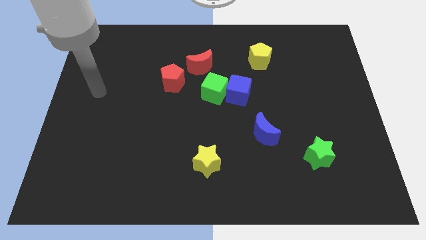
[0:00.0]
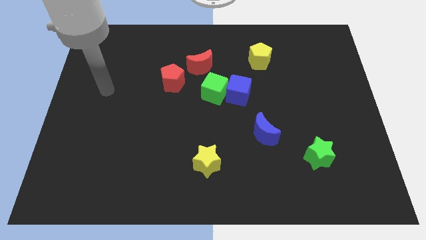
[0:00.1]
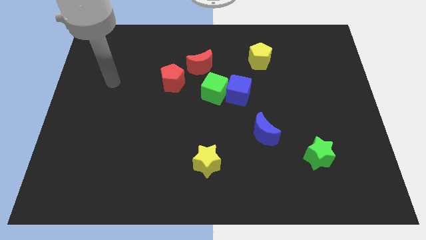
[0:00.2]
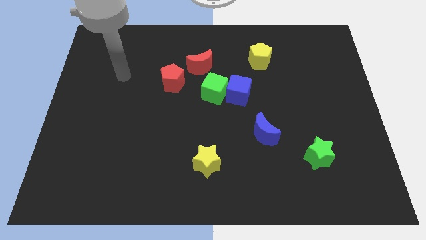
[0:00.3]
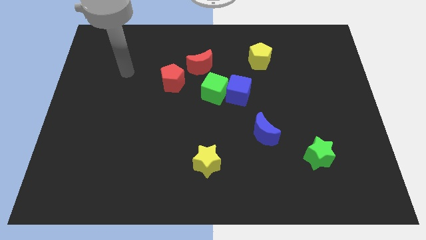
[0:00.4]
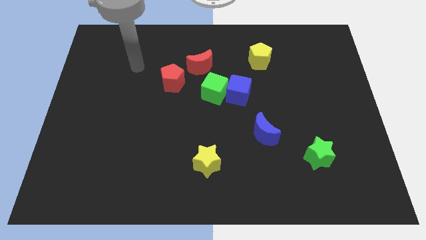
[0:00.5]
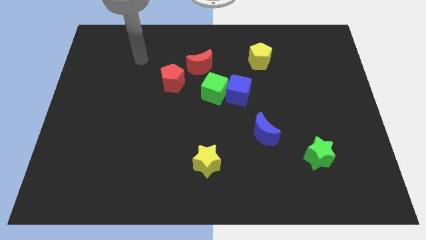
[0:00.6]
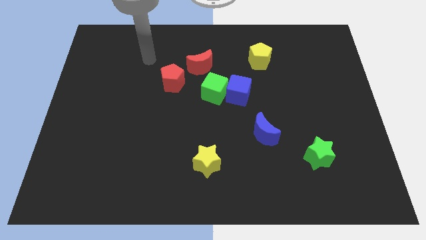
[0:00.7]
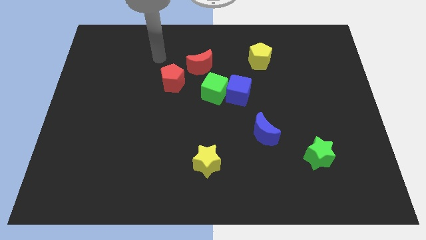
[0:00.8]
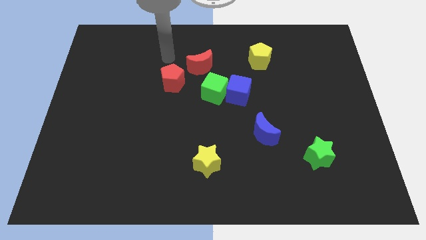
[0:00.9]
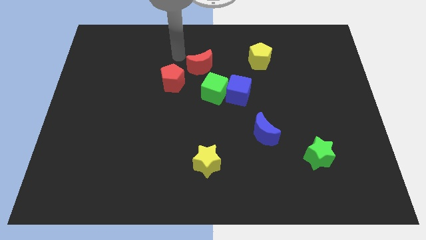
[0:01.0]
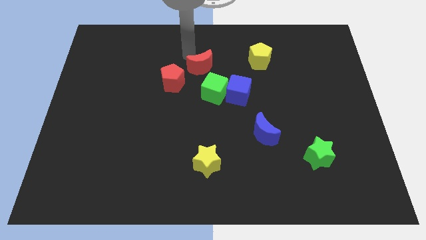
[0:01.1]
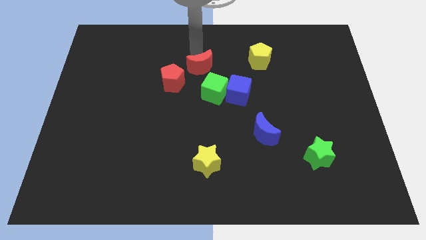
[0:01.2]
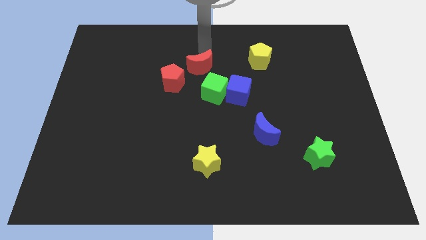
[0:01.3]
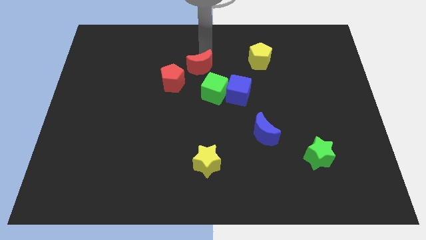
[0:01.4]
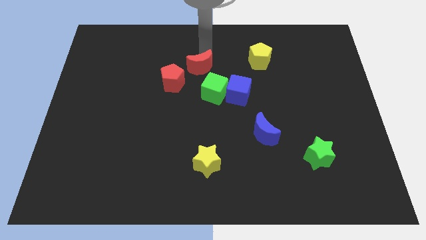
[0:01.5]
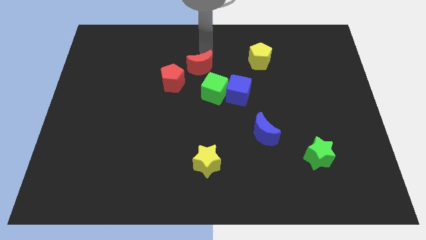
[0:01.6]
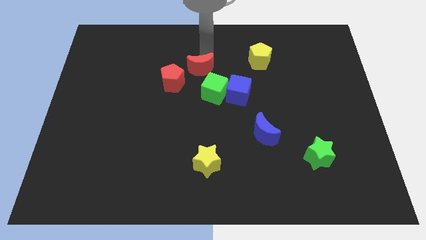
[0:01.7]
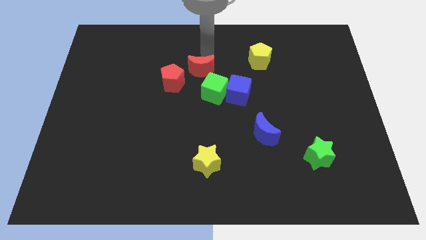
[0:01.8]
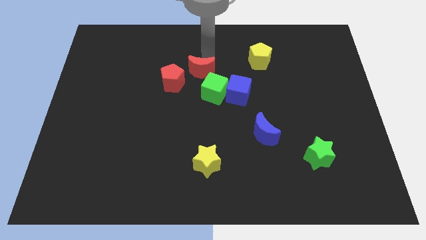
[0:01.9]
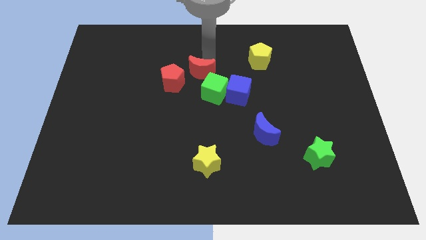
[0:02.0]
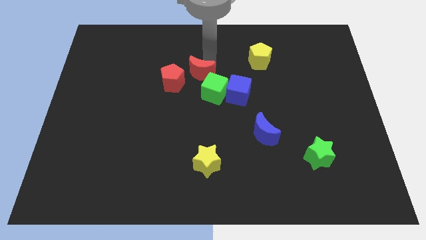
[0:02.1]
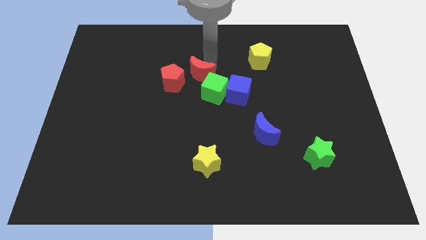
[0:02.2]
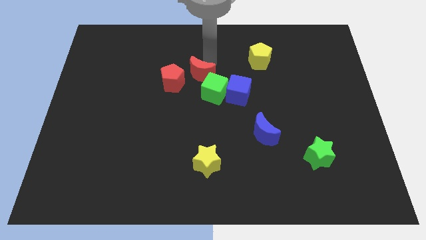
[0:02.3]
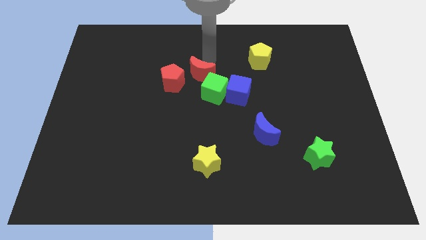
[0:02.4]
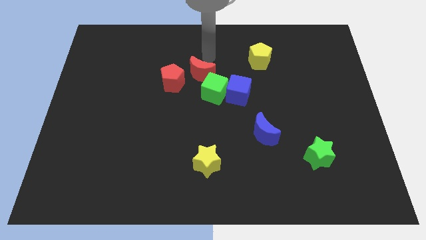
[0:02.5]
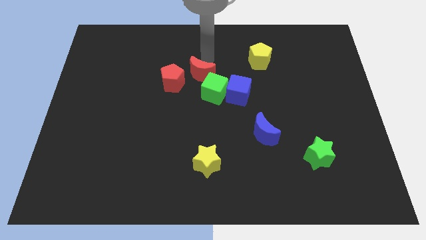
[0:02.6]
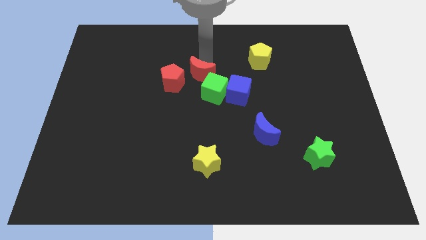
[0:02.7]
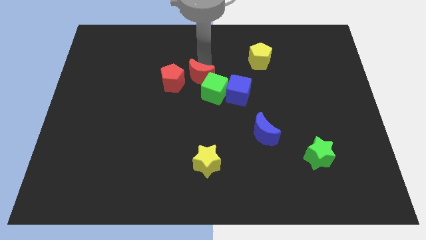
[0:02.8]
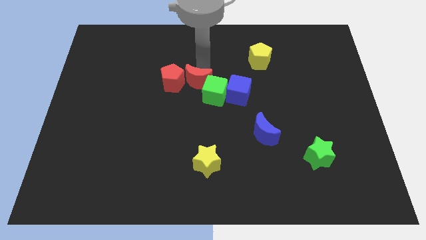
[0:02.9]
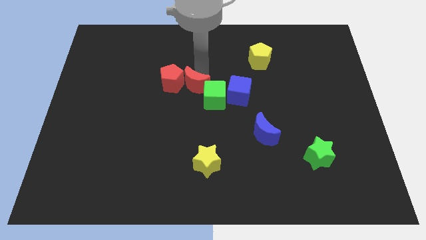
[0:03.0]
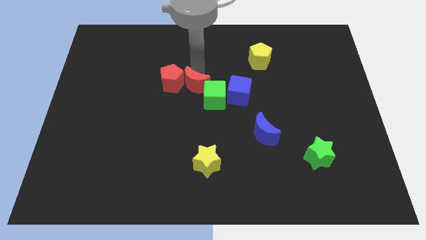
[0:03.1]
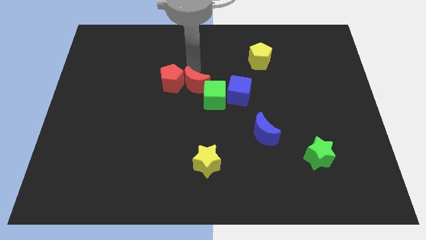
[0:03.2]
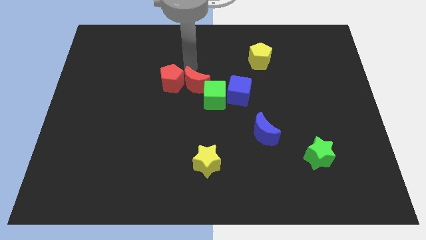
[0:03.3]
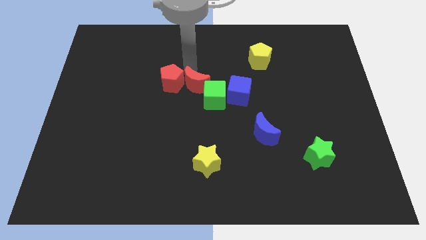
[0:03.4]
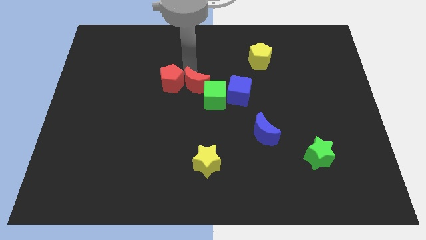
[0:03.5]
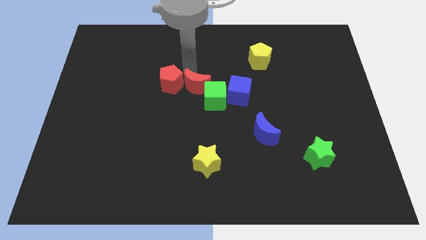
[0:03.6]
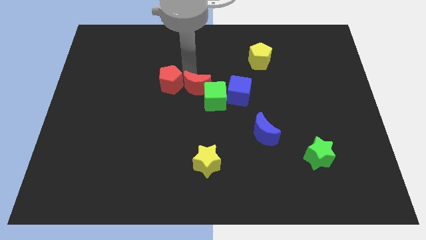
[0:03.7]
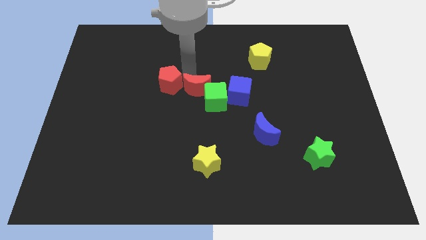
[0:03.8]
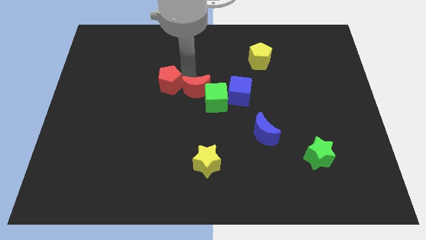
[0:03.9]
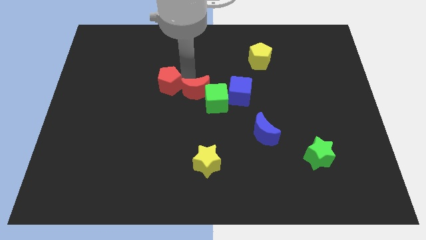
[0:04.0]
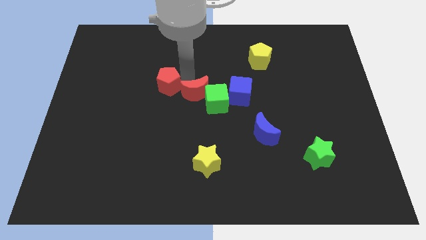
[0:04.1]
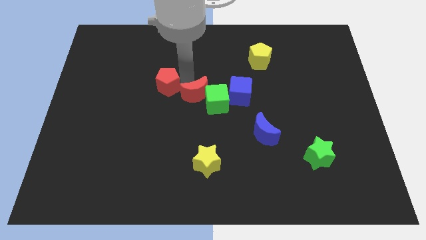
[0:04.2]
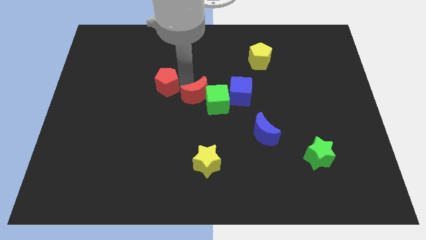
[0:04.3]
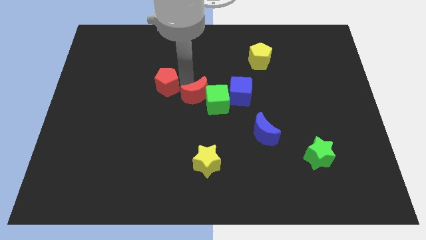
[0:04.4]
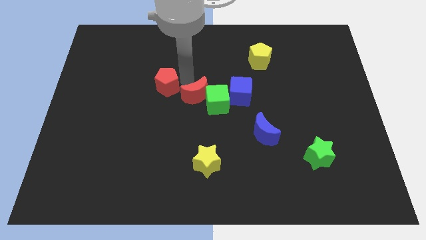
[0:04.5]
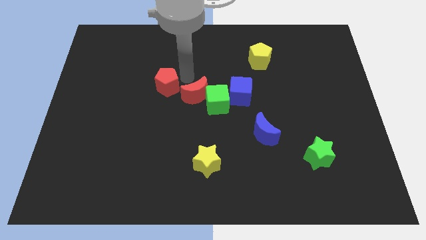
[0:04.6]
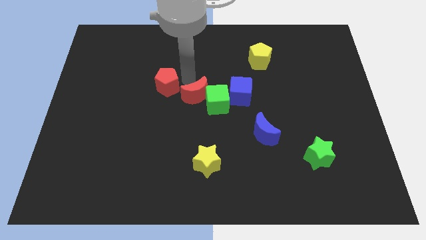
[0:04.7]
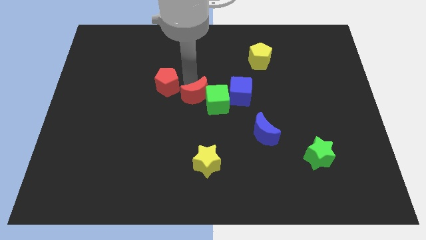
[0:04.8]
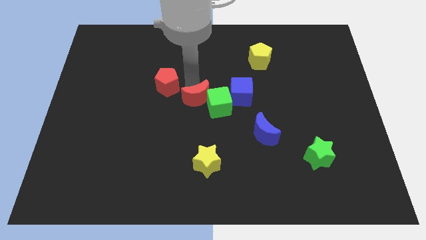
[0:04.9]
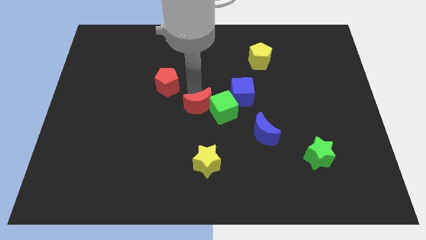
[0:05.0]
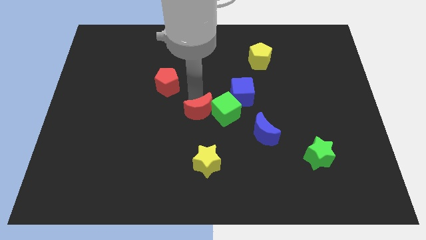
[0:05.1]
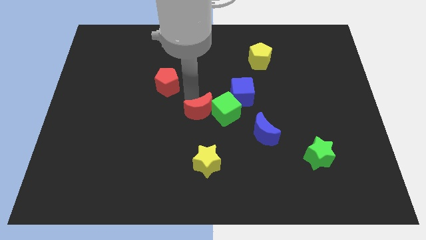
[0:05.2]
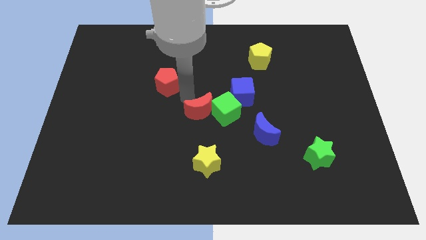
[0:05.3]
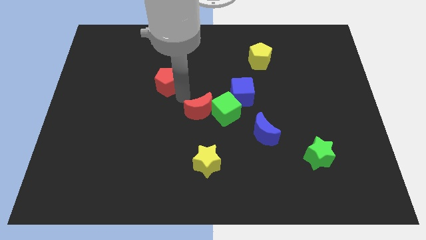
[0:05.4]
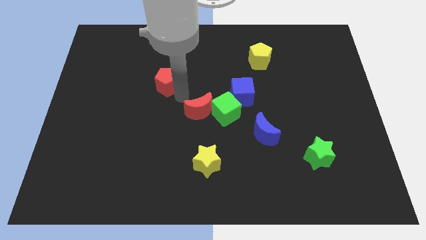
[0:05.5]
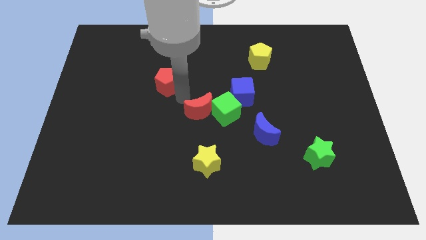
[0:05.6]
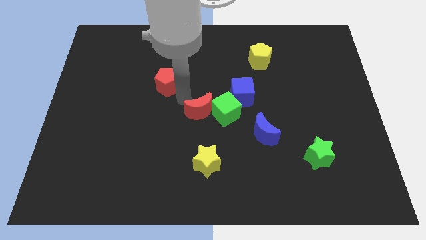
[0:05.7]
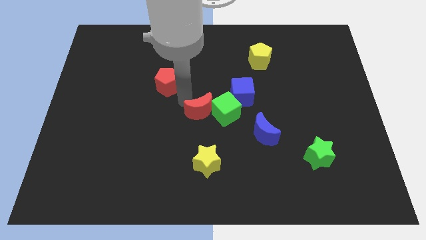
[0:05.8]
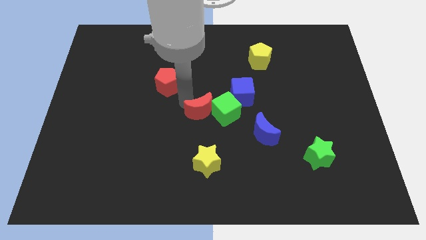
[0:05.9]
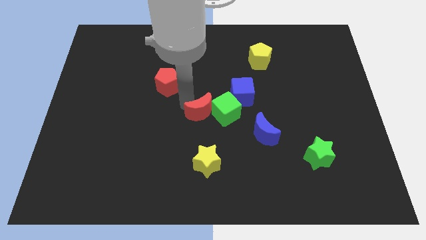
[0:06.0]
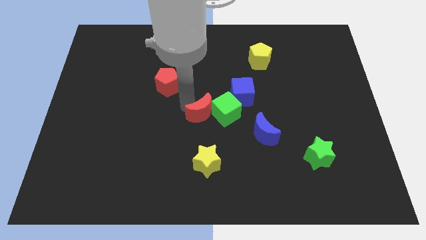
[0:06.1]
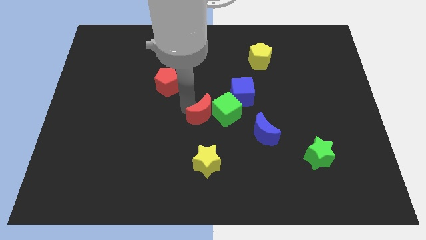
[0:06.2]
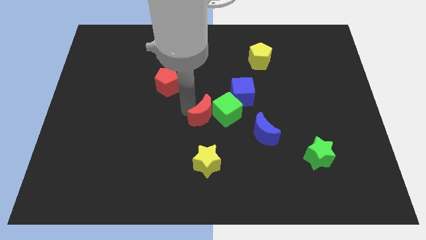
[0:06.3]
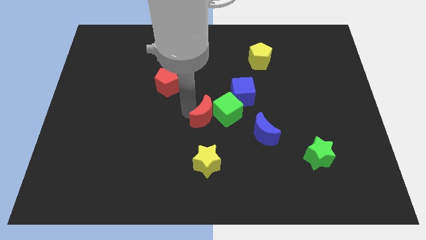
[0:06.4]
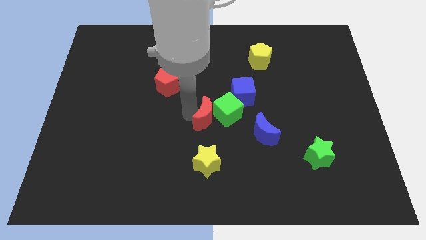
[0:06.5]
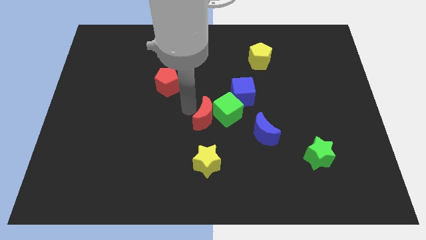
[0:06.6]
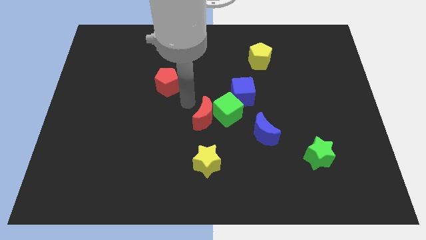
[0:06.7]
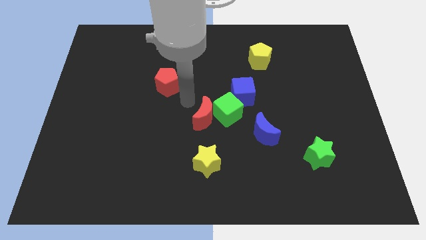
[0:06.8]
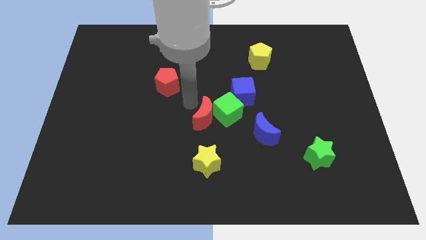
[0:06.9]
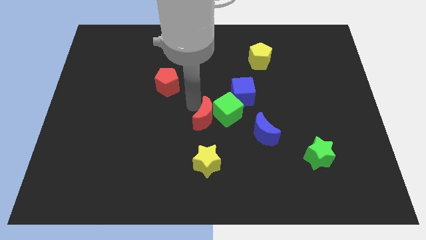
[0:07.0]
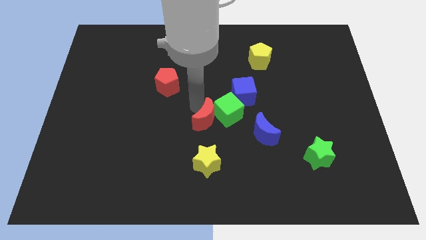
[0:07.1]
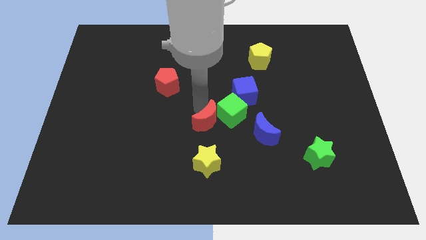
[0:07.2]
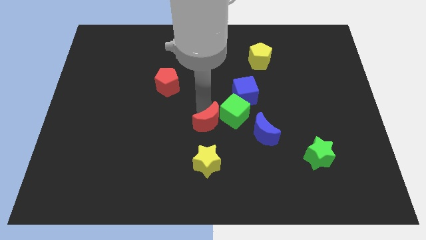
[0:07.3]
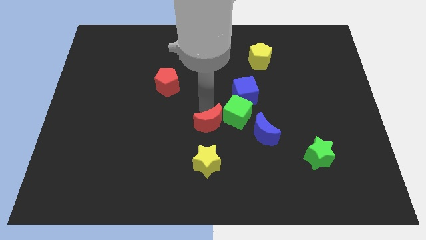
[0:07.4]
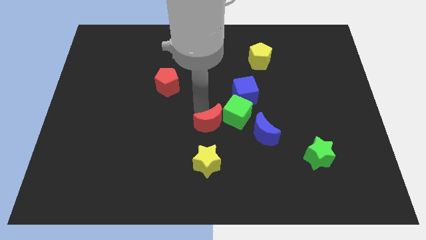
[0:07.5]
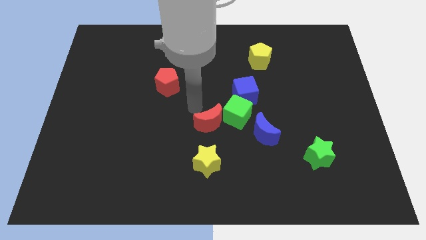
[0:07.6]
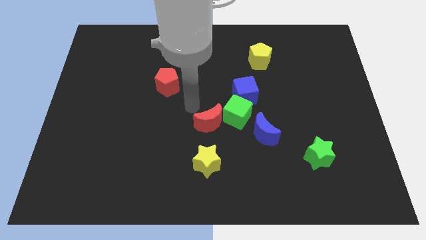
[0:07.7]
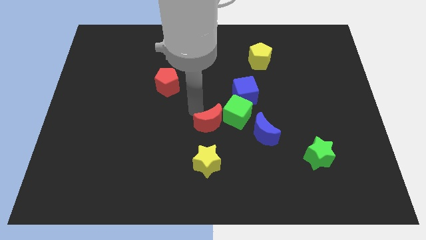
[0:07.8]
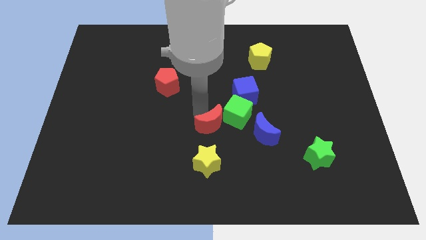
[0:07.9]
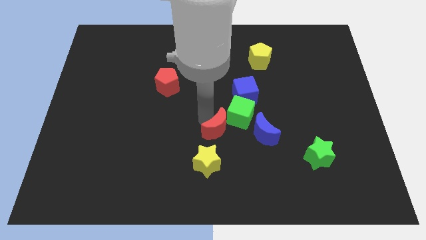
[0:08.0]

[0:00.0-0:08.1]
push the red moon to the top right of the yellow star
